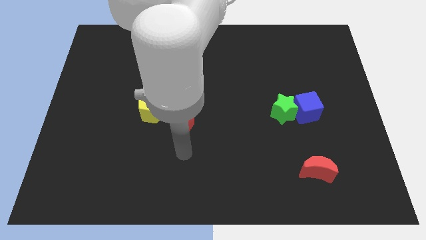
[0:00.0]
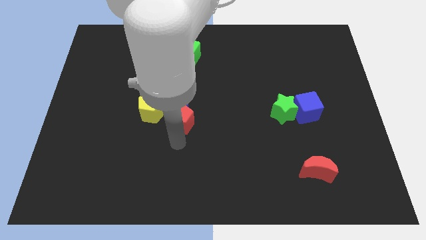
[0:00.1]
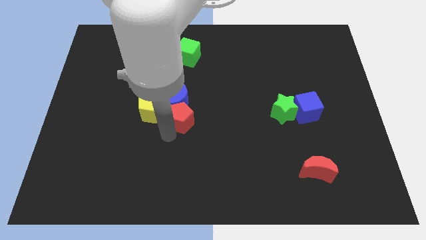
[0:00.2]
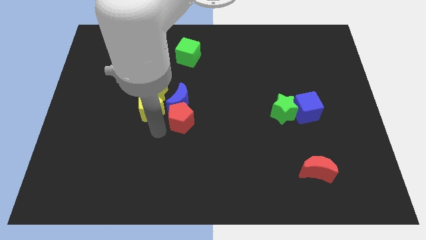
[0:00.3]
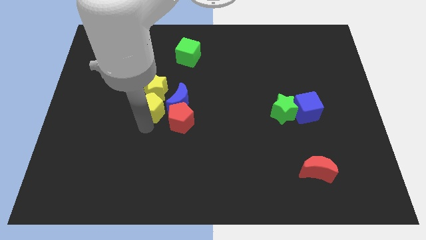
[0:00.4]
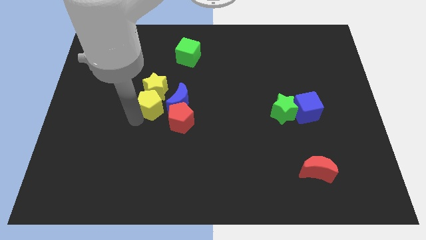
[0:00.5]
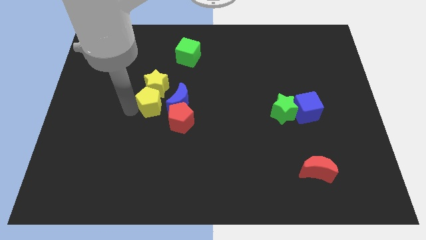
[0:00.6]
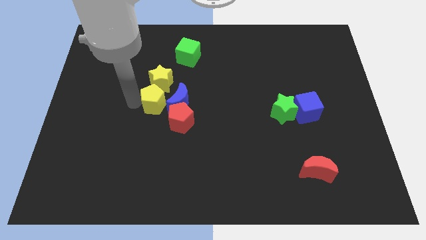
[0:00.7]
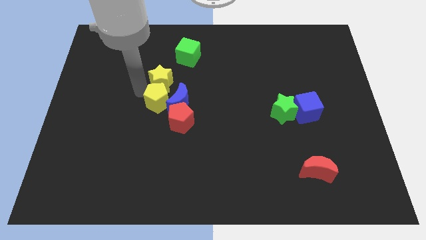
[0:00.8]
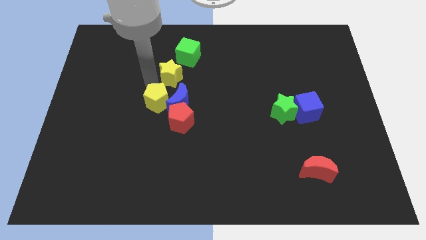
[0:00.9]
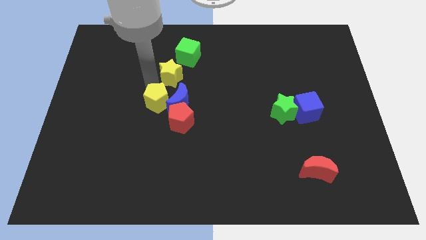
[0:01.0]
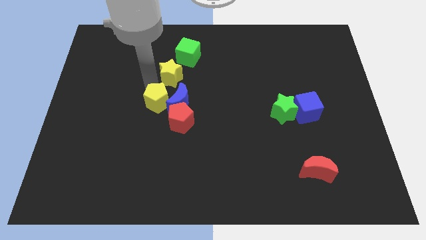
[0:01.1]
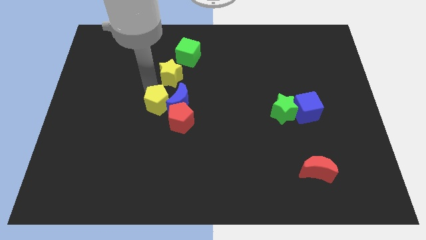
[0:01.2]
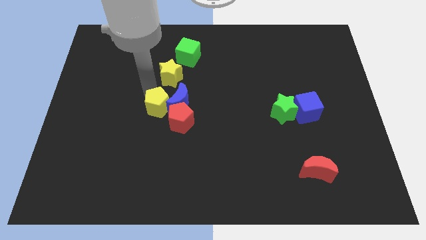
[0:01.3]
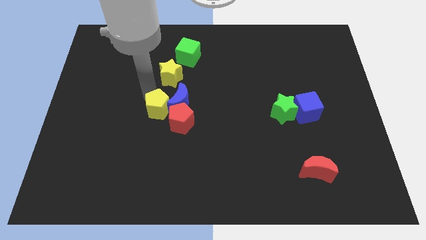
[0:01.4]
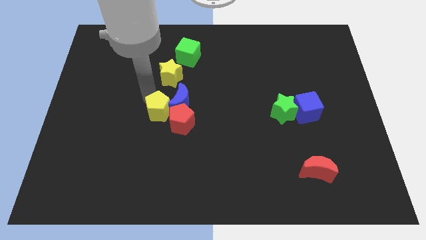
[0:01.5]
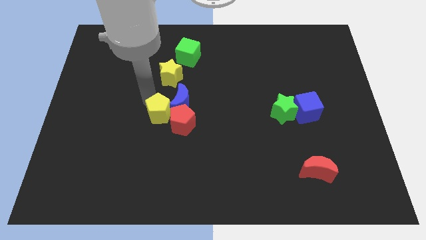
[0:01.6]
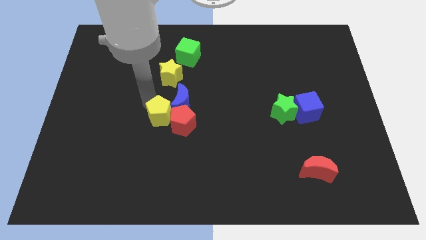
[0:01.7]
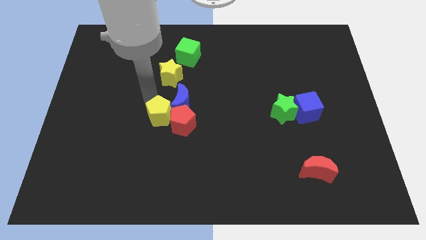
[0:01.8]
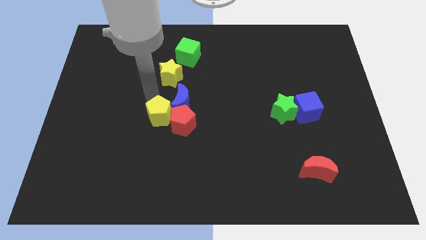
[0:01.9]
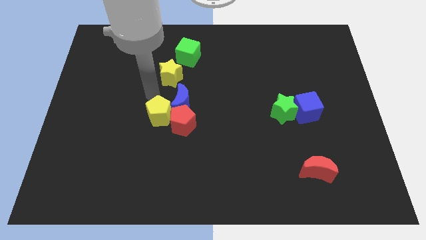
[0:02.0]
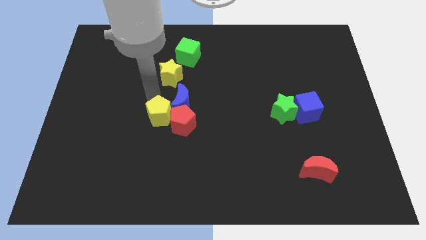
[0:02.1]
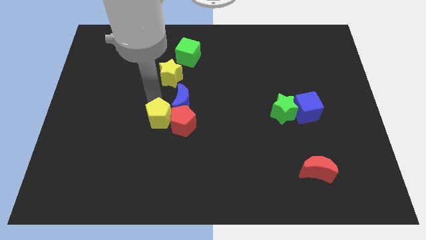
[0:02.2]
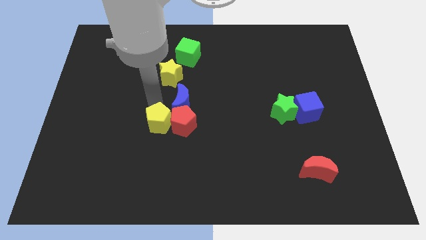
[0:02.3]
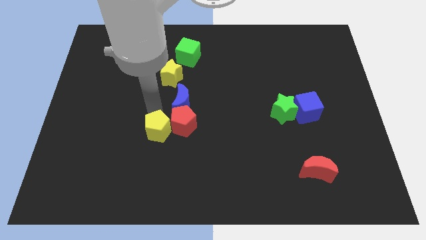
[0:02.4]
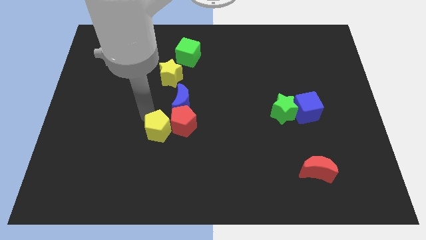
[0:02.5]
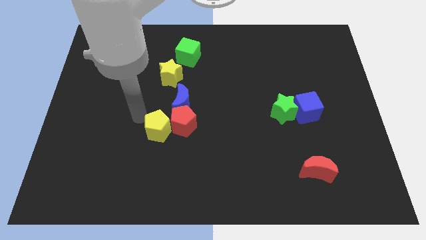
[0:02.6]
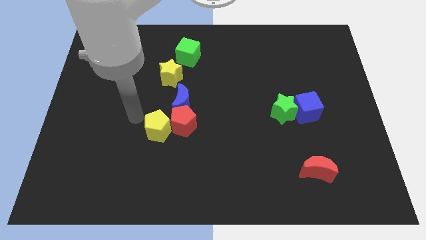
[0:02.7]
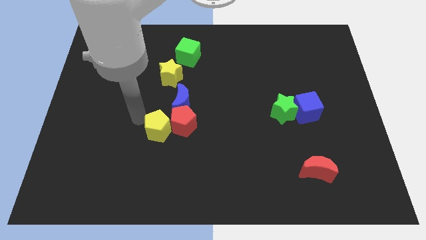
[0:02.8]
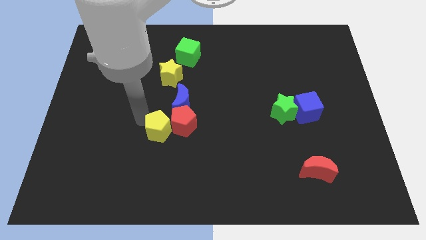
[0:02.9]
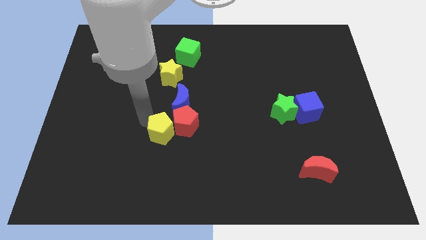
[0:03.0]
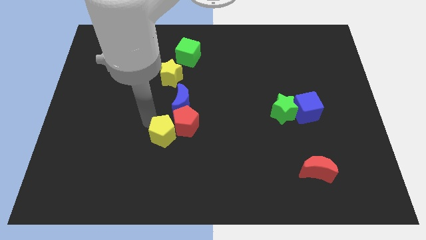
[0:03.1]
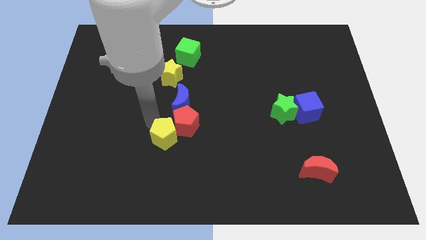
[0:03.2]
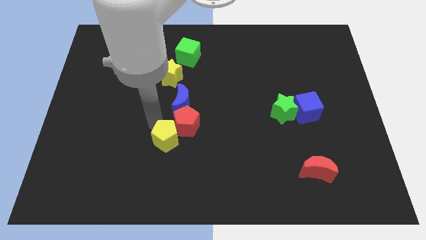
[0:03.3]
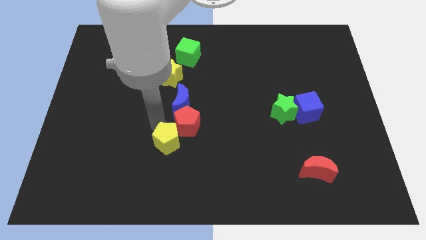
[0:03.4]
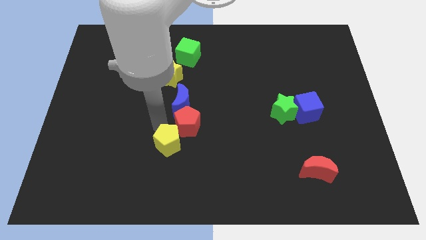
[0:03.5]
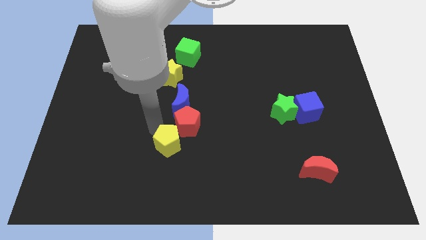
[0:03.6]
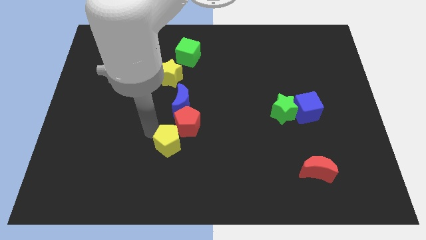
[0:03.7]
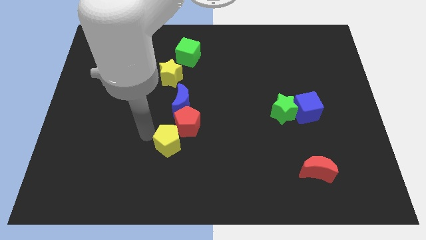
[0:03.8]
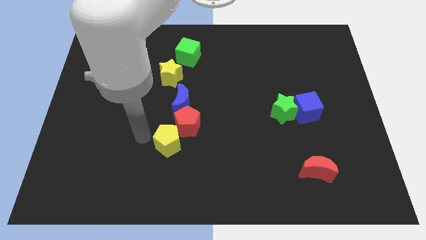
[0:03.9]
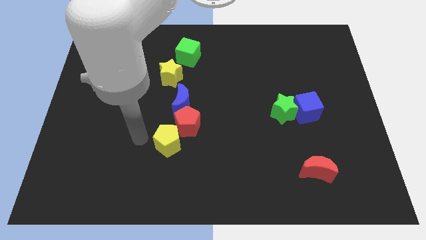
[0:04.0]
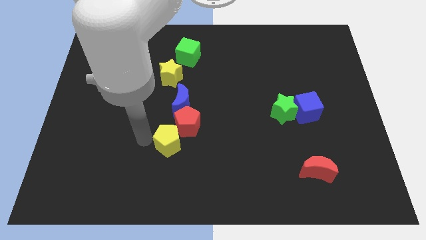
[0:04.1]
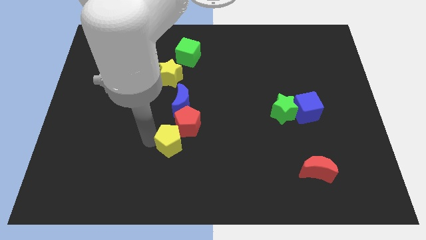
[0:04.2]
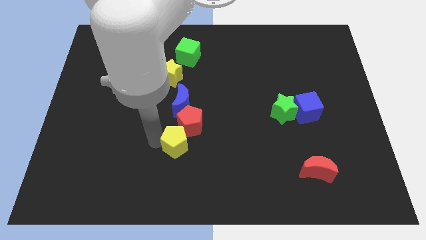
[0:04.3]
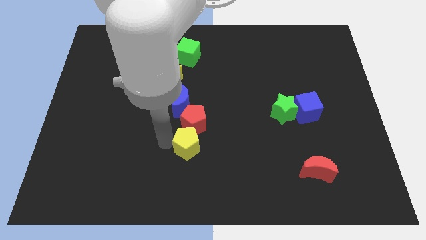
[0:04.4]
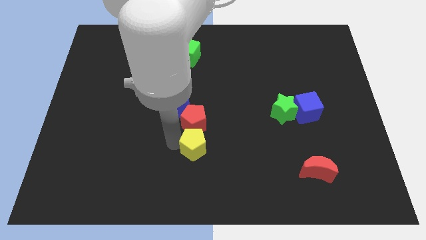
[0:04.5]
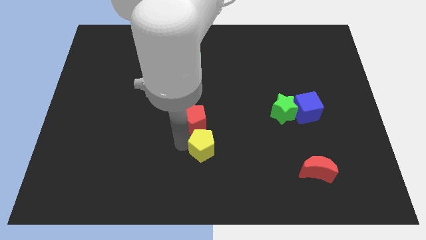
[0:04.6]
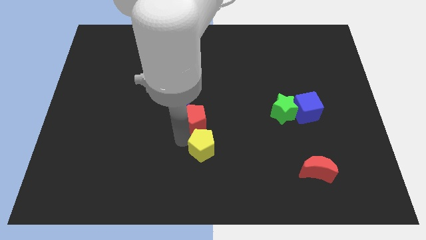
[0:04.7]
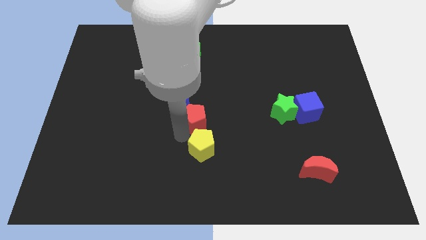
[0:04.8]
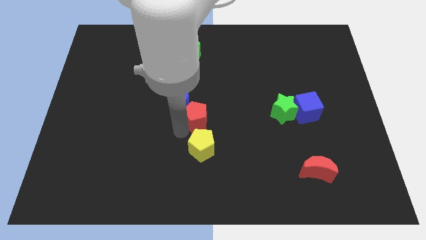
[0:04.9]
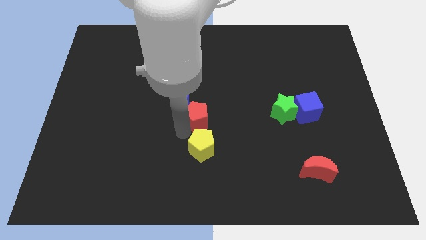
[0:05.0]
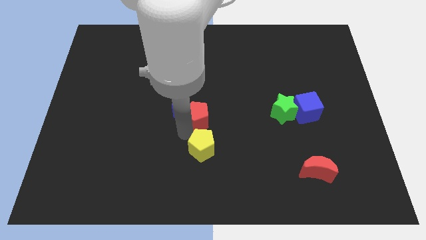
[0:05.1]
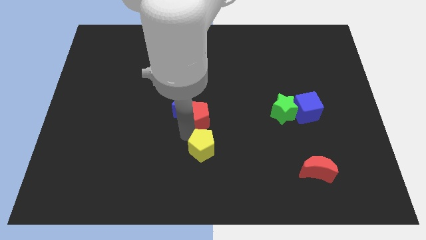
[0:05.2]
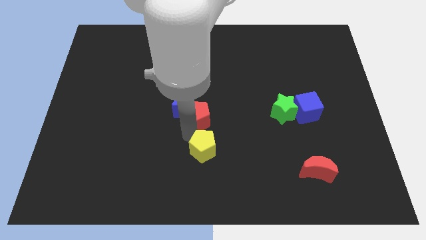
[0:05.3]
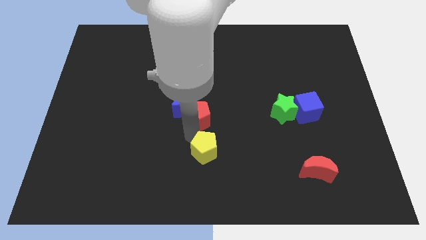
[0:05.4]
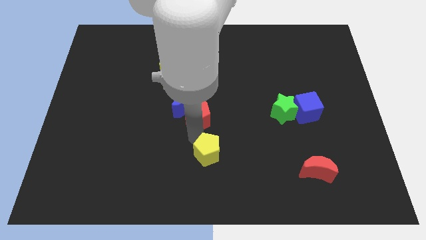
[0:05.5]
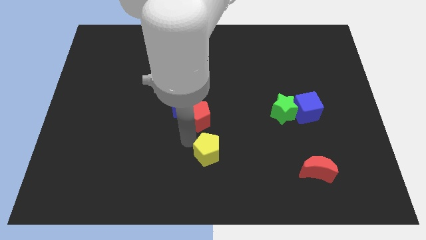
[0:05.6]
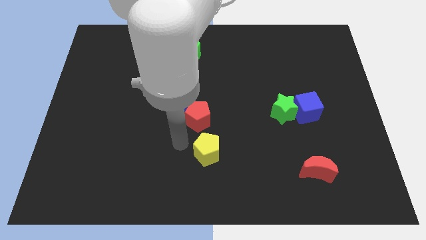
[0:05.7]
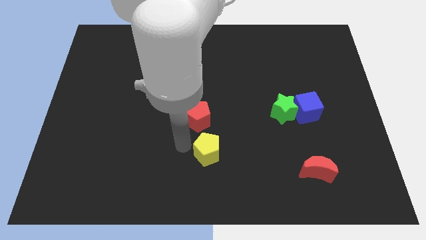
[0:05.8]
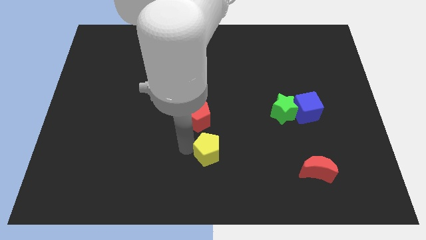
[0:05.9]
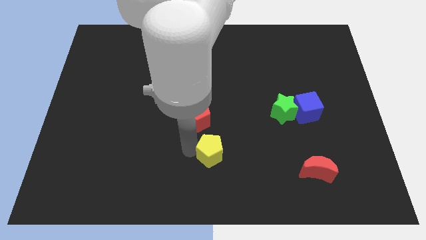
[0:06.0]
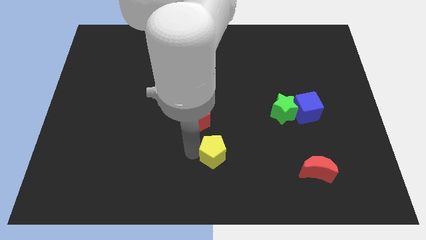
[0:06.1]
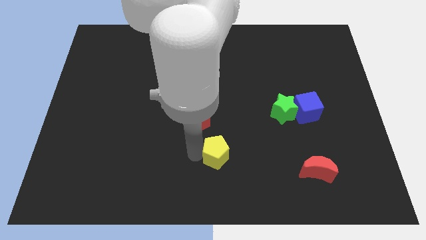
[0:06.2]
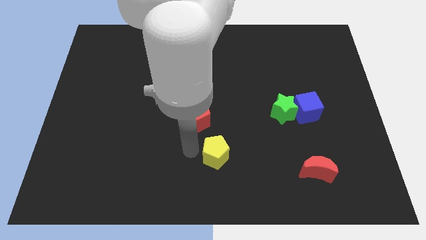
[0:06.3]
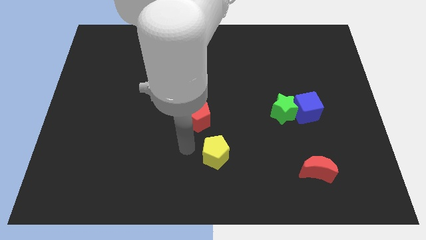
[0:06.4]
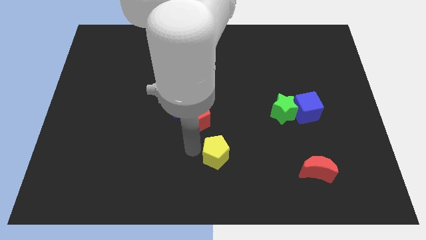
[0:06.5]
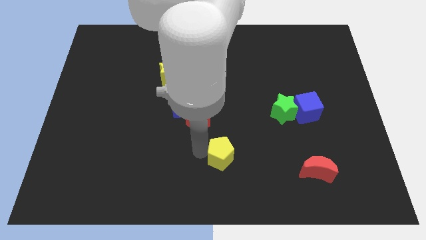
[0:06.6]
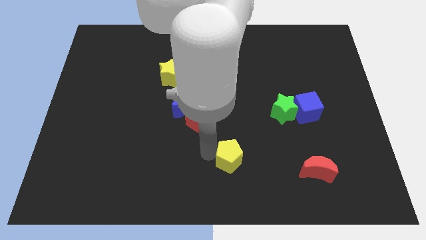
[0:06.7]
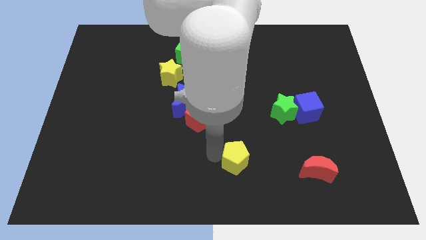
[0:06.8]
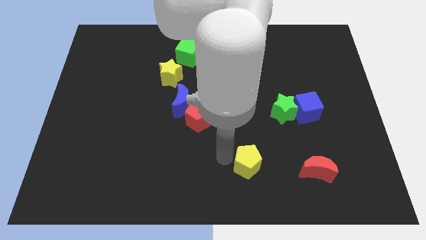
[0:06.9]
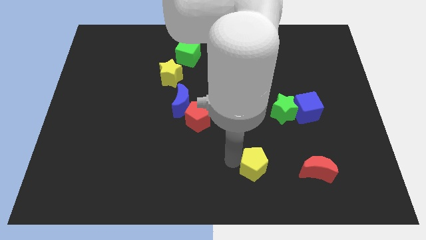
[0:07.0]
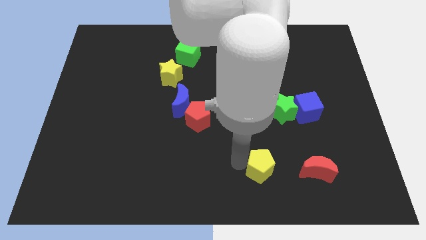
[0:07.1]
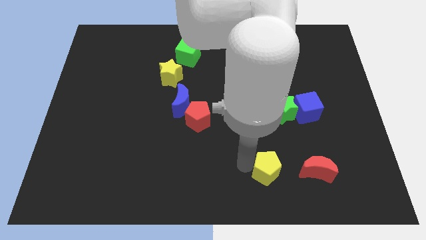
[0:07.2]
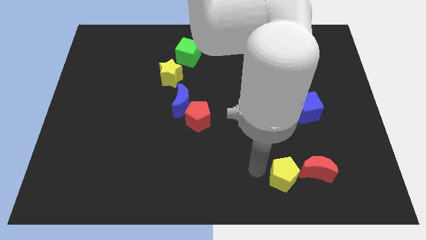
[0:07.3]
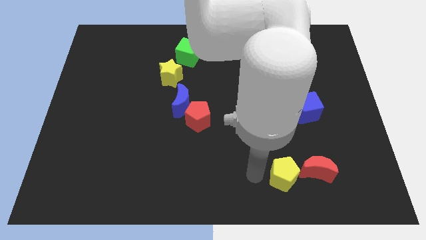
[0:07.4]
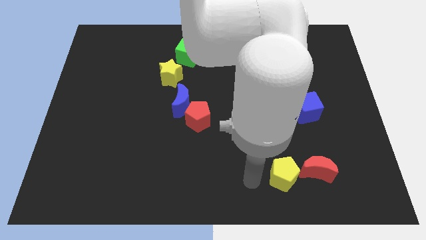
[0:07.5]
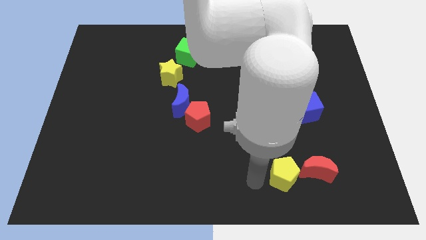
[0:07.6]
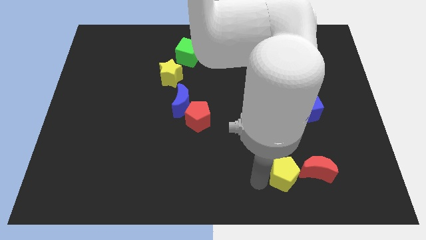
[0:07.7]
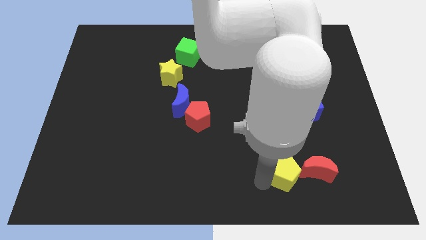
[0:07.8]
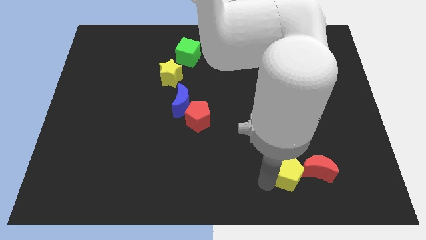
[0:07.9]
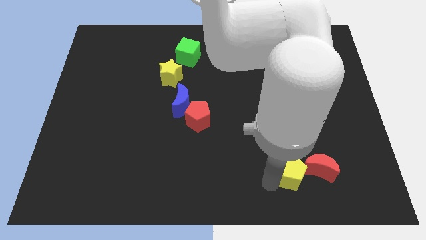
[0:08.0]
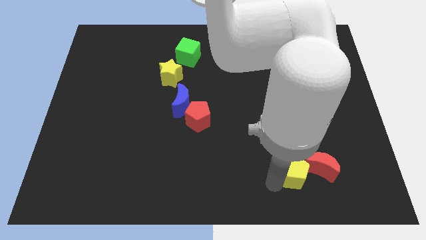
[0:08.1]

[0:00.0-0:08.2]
put the yellow pentagon close to the red moon
